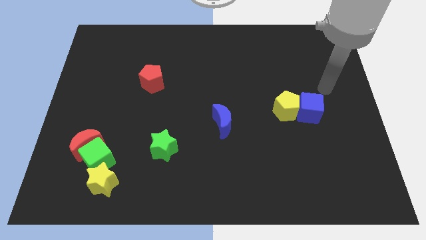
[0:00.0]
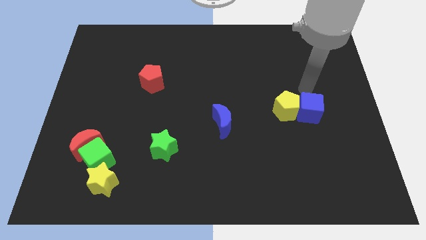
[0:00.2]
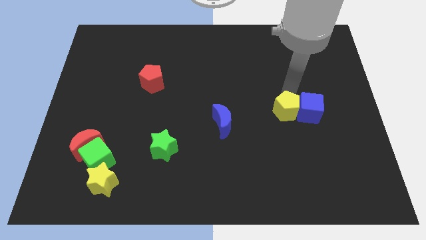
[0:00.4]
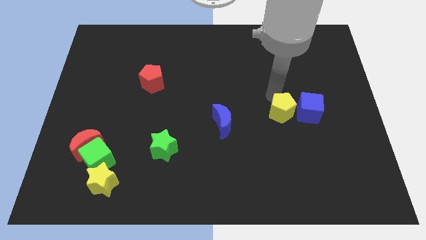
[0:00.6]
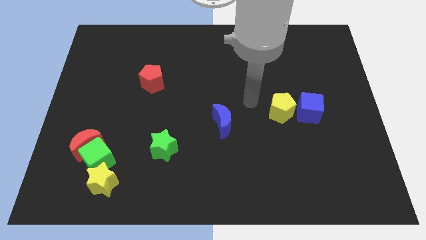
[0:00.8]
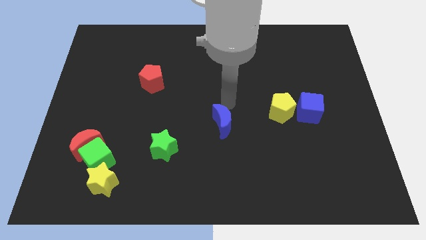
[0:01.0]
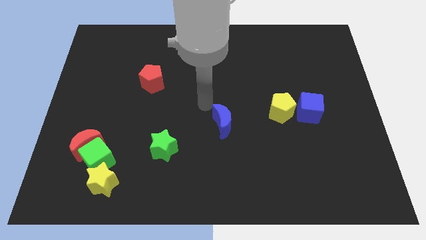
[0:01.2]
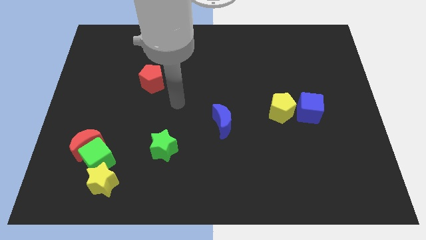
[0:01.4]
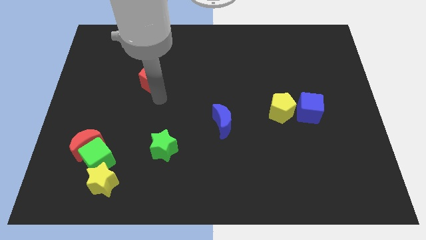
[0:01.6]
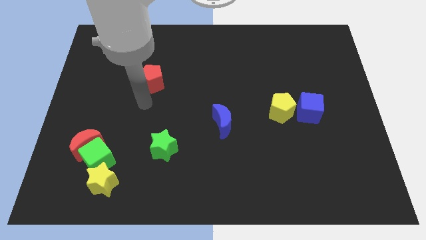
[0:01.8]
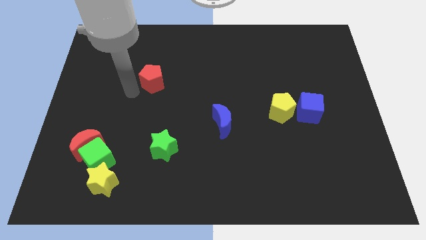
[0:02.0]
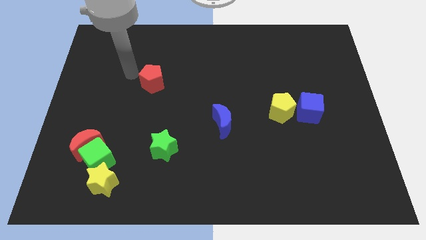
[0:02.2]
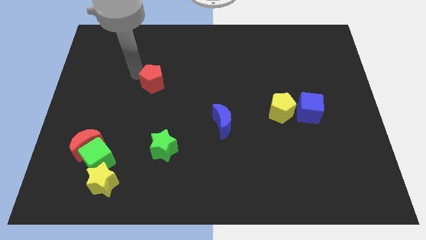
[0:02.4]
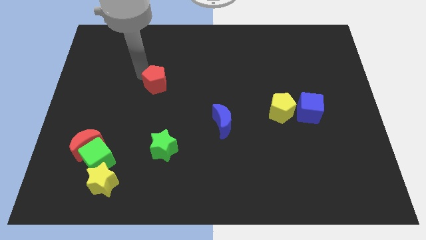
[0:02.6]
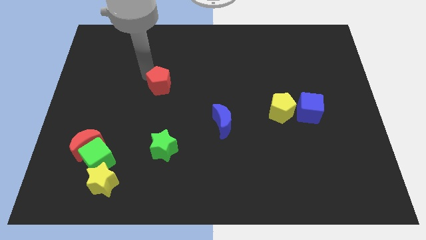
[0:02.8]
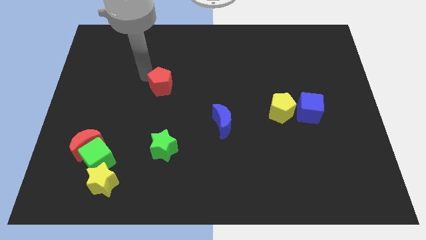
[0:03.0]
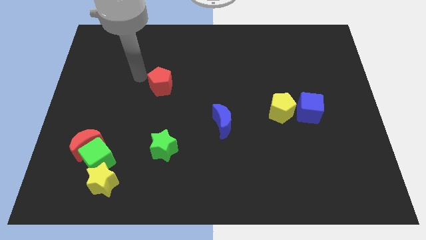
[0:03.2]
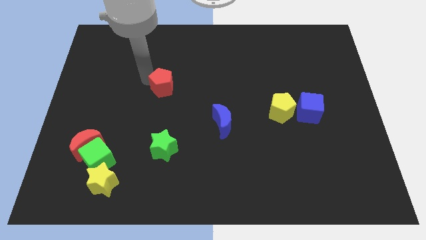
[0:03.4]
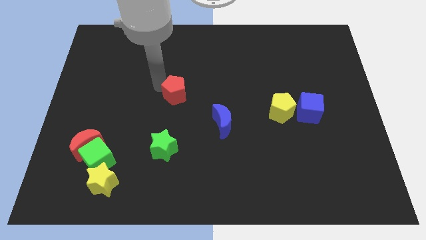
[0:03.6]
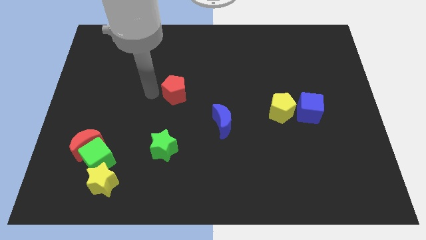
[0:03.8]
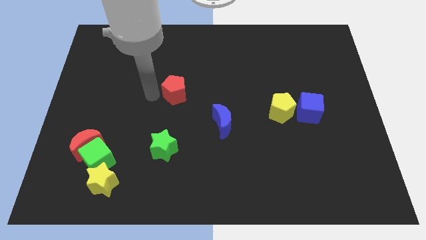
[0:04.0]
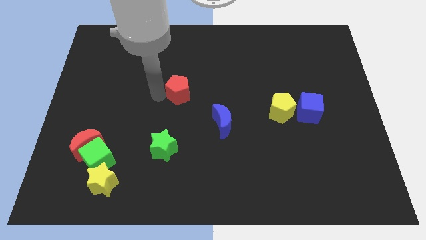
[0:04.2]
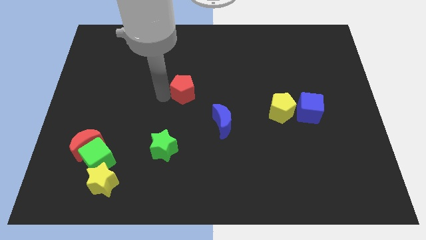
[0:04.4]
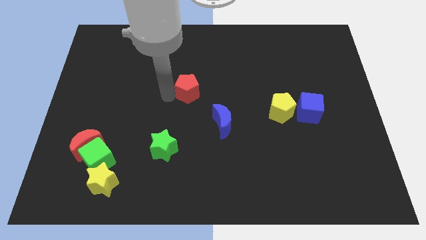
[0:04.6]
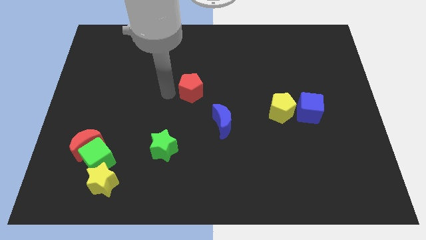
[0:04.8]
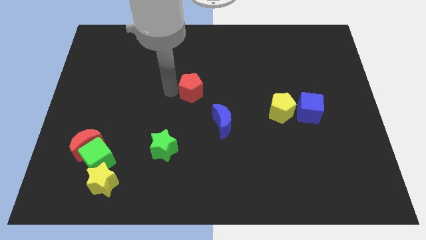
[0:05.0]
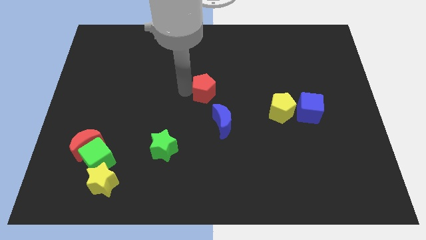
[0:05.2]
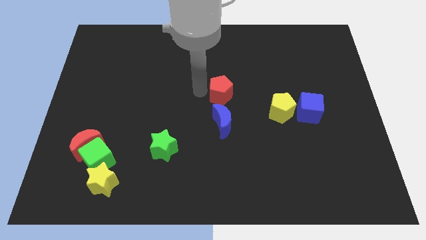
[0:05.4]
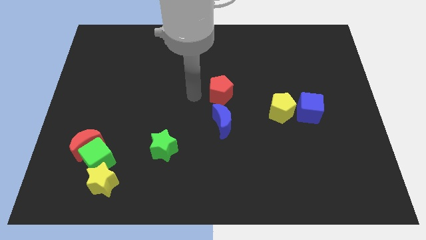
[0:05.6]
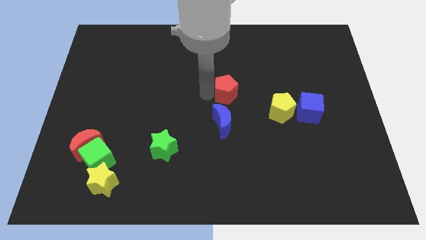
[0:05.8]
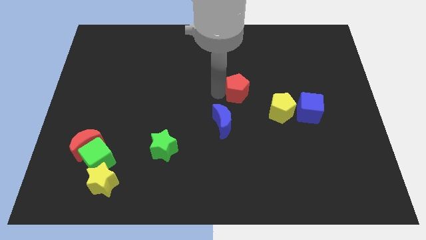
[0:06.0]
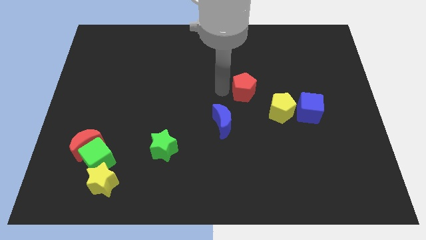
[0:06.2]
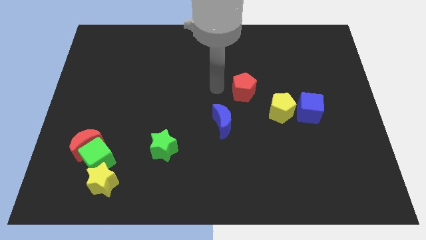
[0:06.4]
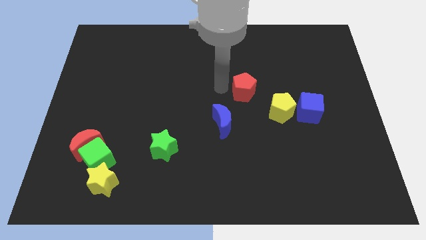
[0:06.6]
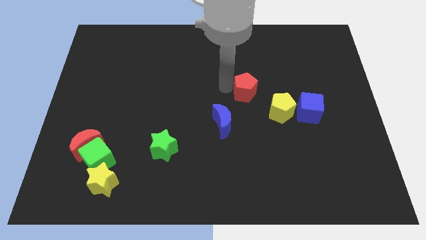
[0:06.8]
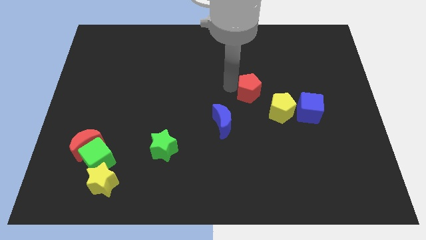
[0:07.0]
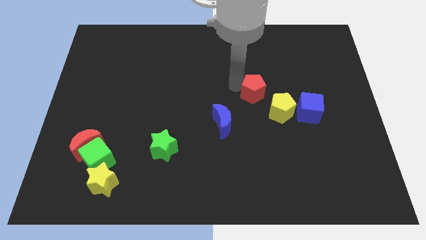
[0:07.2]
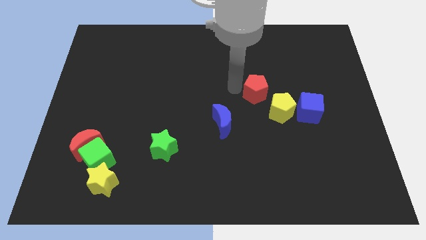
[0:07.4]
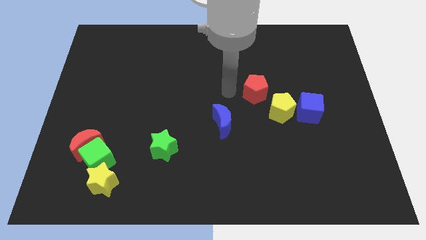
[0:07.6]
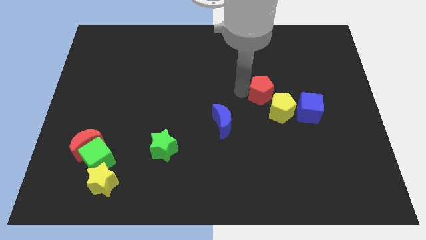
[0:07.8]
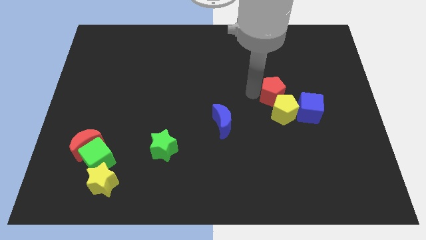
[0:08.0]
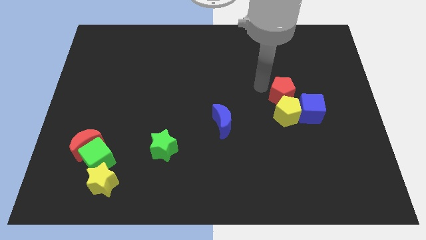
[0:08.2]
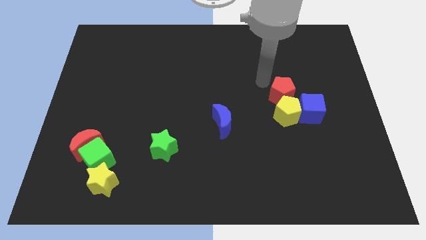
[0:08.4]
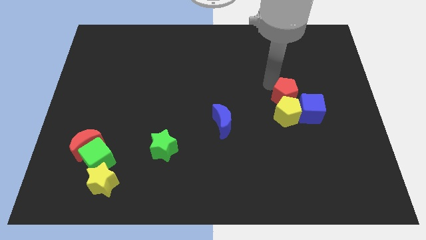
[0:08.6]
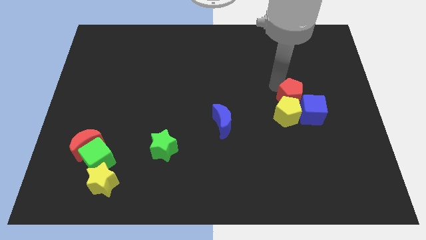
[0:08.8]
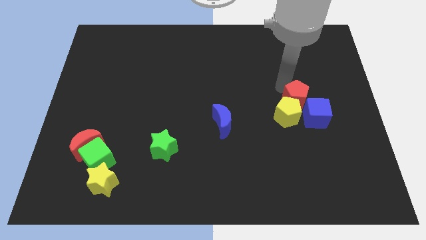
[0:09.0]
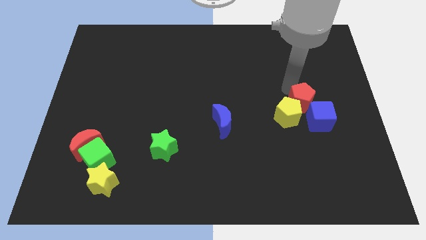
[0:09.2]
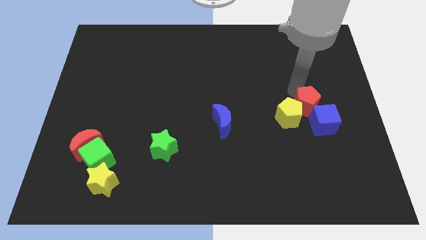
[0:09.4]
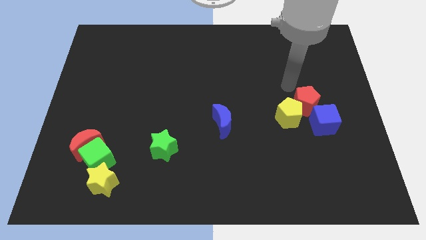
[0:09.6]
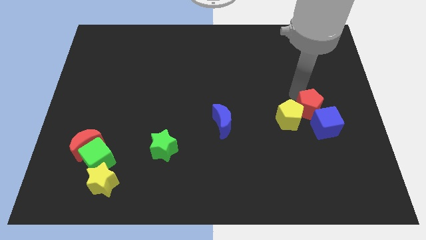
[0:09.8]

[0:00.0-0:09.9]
move the red pentagon to the blue cube

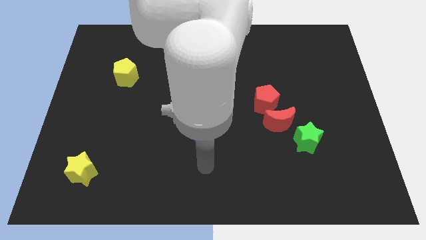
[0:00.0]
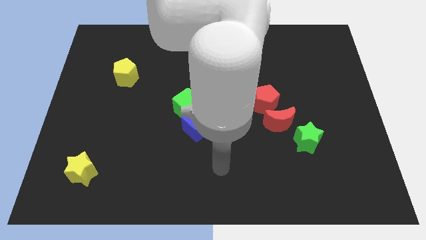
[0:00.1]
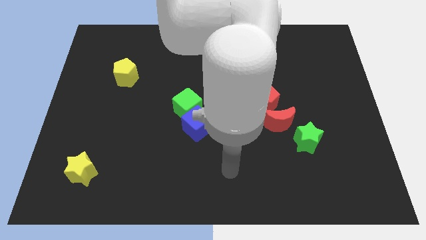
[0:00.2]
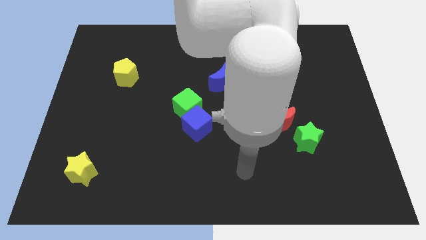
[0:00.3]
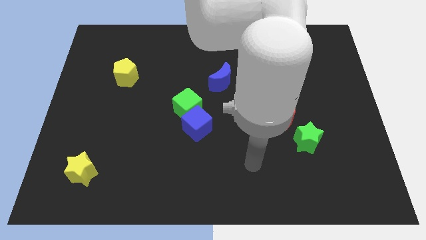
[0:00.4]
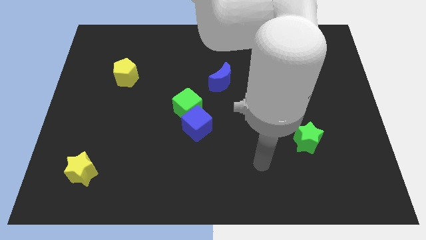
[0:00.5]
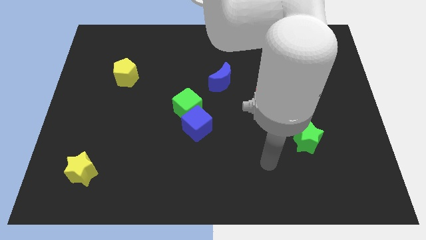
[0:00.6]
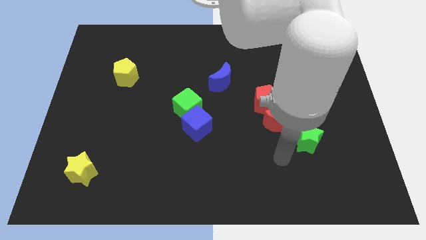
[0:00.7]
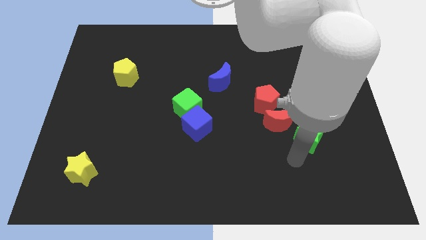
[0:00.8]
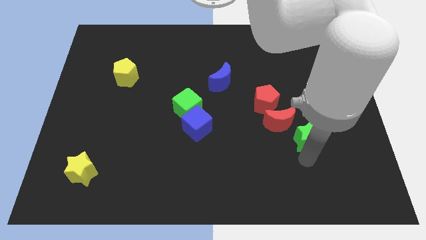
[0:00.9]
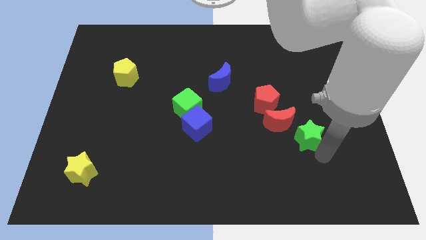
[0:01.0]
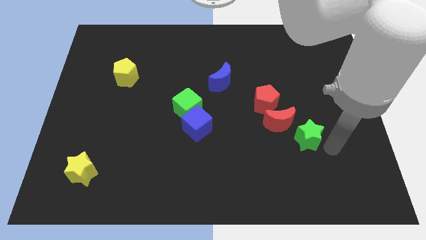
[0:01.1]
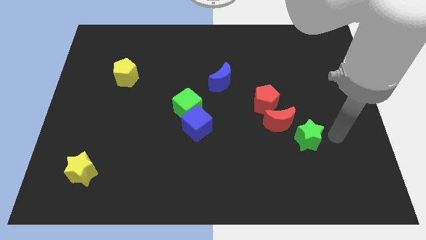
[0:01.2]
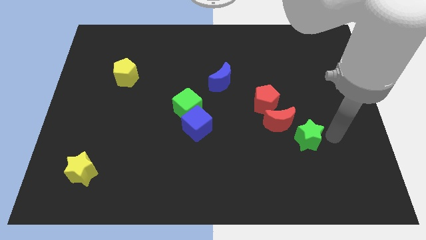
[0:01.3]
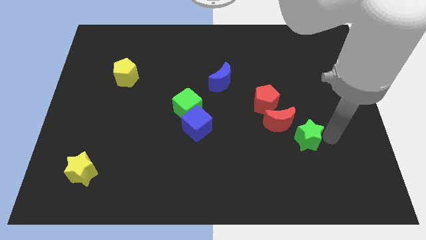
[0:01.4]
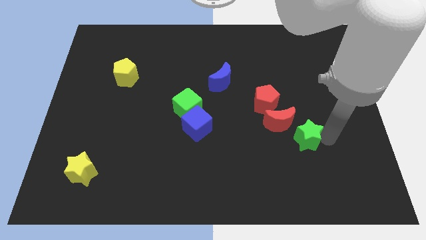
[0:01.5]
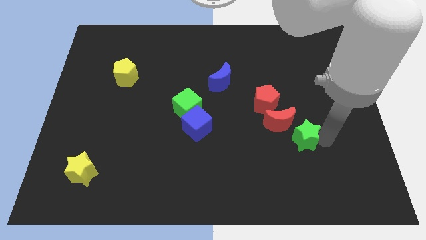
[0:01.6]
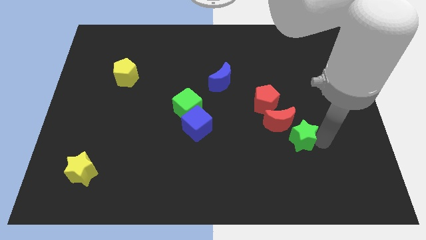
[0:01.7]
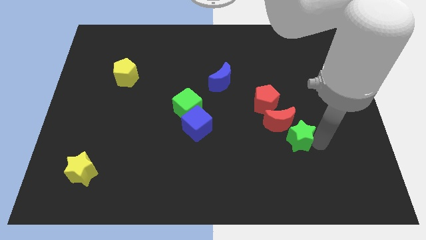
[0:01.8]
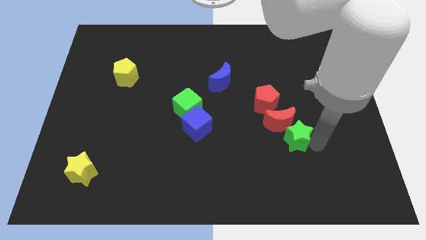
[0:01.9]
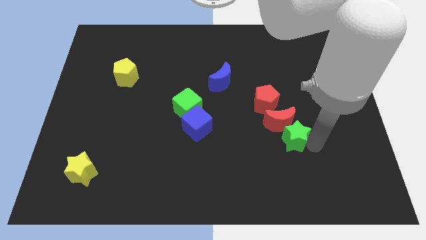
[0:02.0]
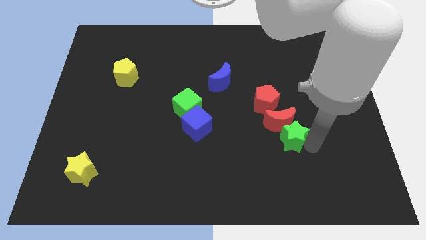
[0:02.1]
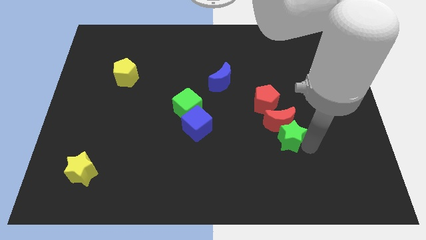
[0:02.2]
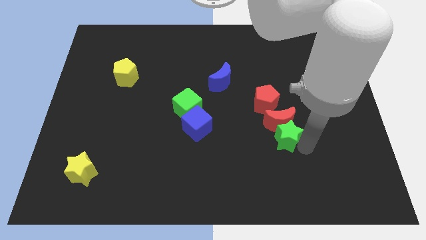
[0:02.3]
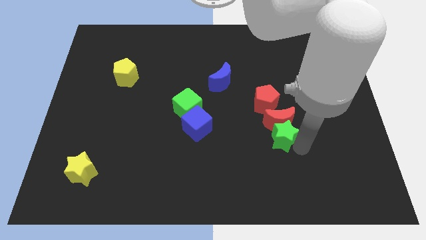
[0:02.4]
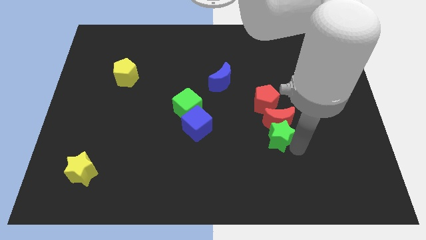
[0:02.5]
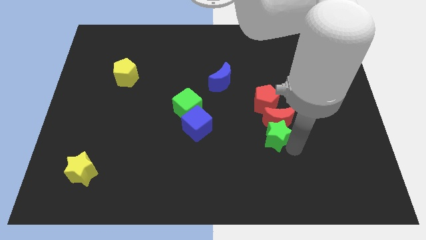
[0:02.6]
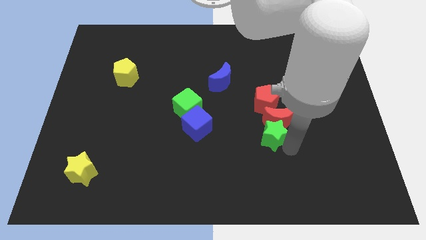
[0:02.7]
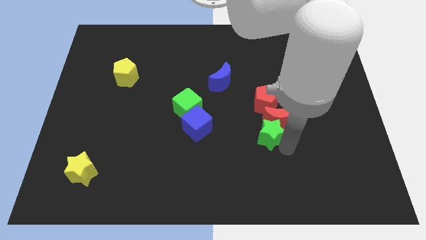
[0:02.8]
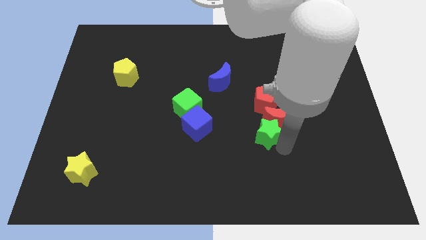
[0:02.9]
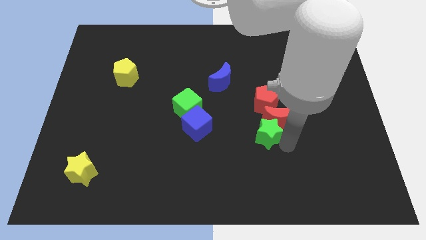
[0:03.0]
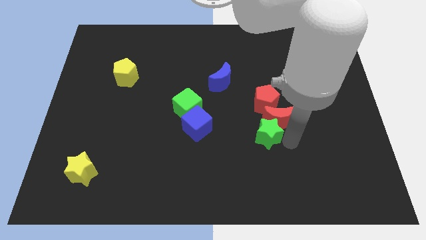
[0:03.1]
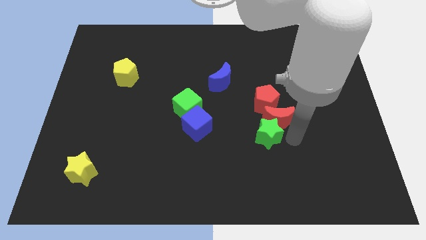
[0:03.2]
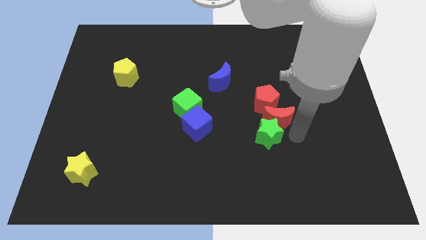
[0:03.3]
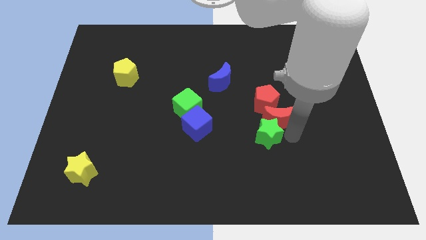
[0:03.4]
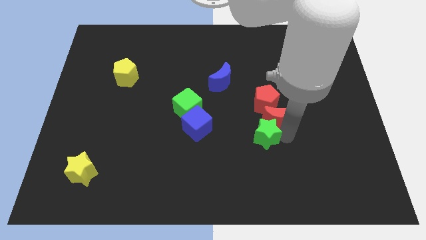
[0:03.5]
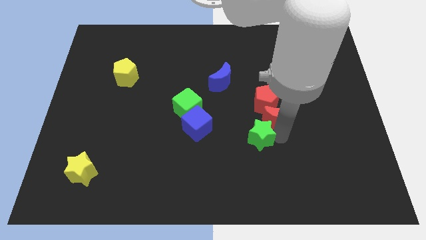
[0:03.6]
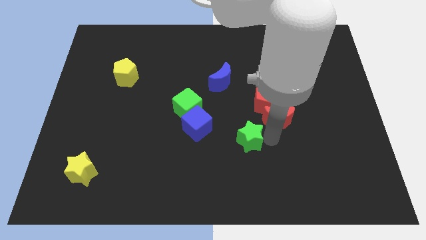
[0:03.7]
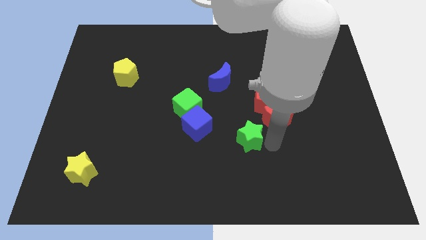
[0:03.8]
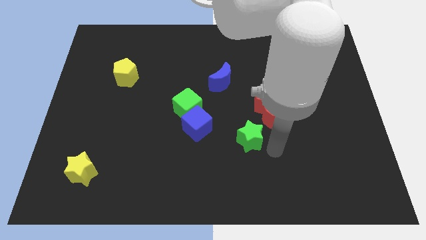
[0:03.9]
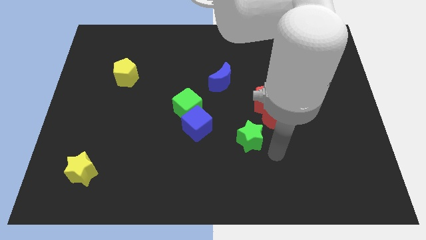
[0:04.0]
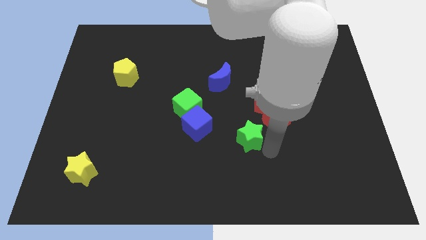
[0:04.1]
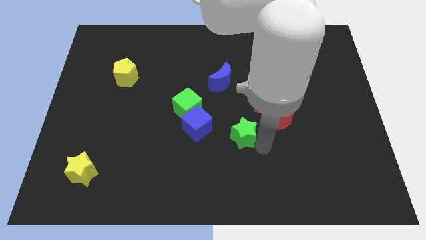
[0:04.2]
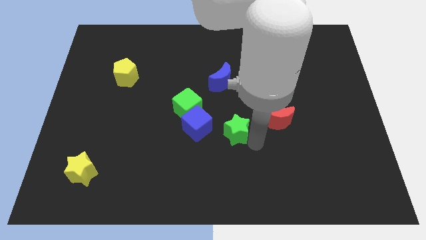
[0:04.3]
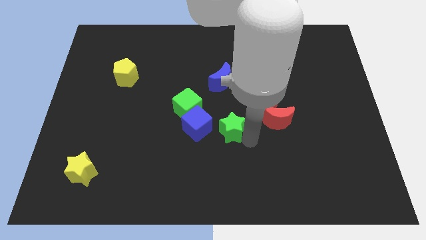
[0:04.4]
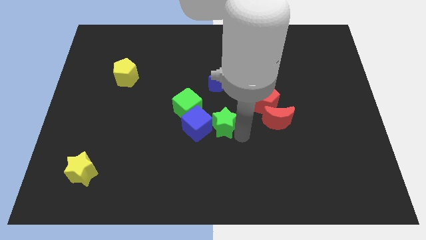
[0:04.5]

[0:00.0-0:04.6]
move the green star to the blue cube
